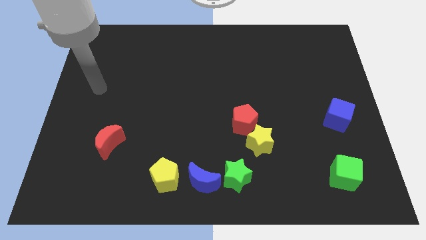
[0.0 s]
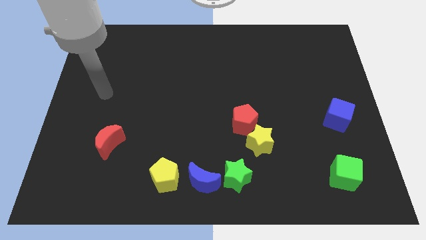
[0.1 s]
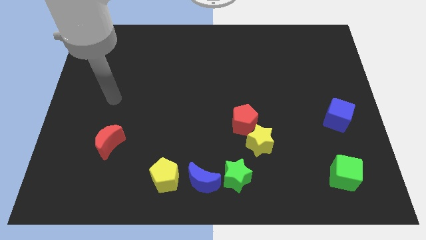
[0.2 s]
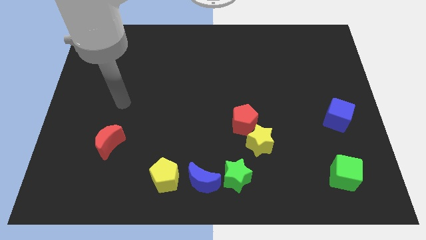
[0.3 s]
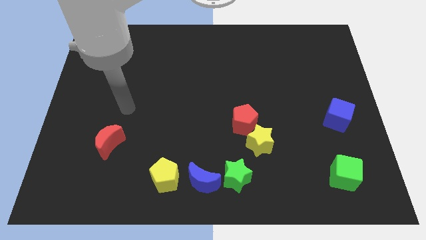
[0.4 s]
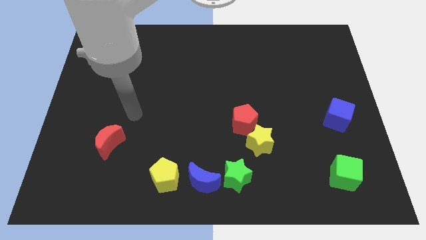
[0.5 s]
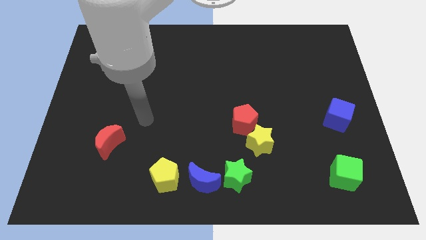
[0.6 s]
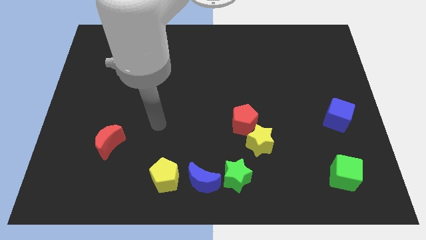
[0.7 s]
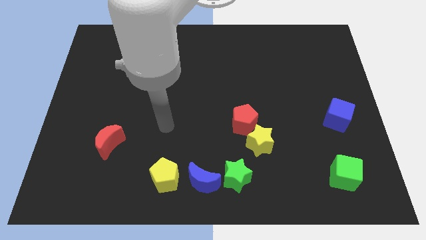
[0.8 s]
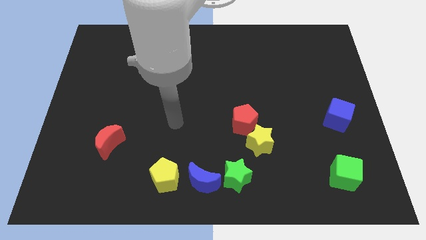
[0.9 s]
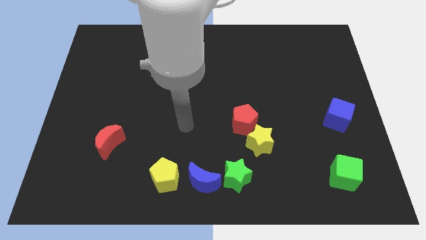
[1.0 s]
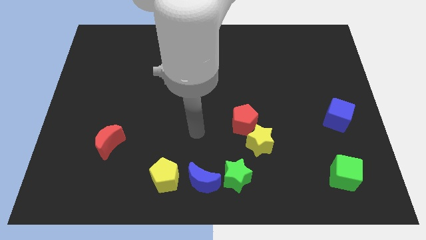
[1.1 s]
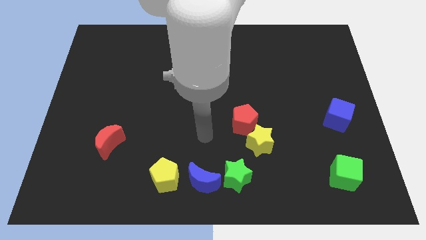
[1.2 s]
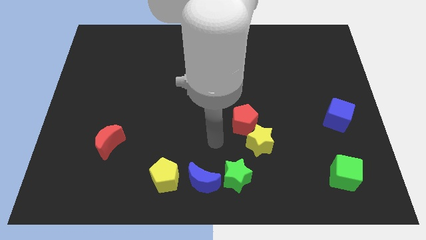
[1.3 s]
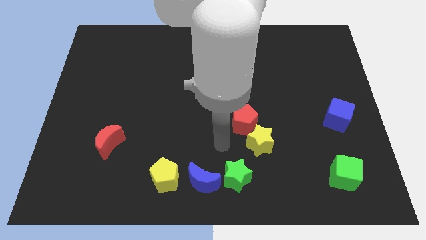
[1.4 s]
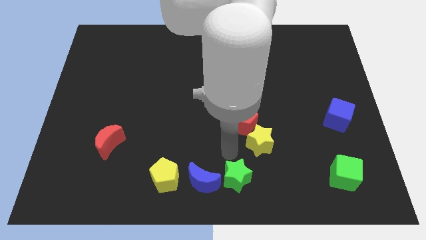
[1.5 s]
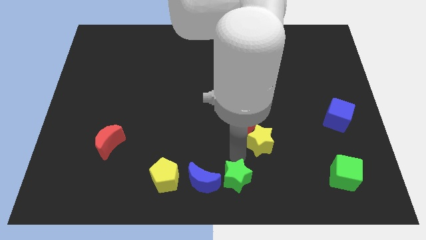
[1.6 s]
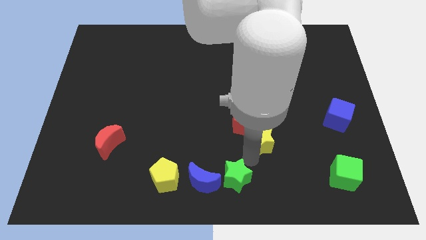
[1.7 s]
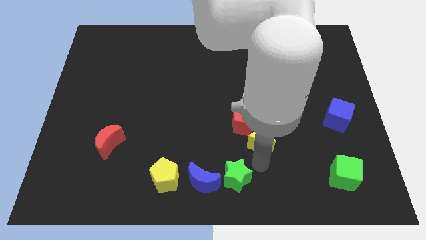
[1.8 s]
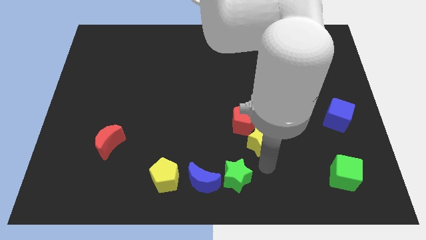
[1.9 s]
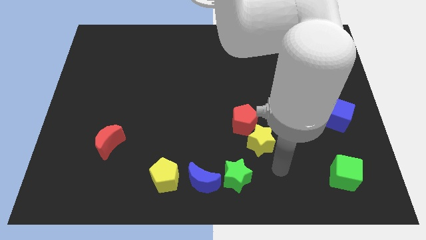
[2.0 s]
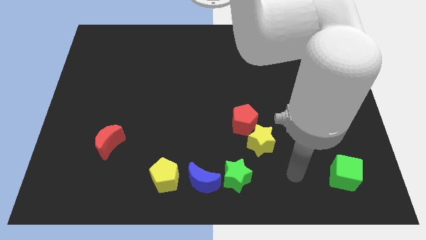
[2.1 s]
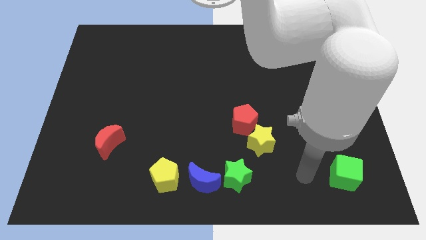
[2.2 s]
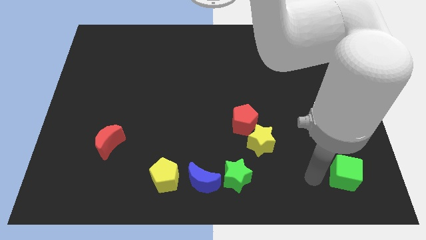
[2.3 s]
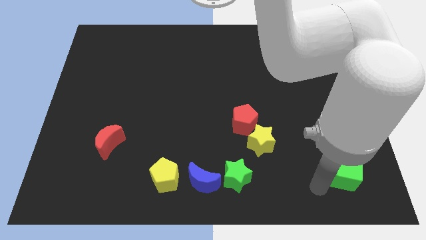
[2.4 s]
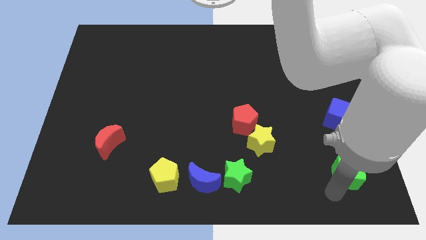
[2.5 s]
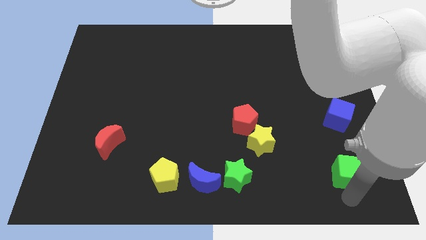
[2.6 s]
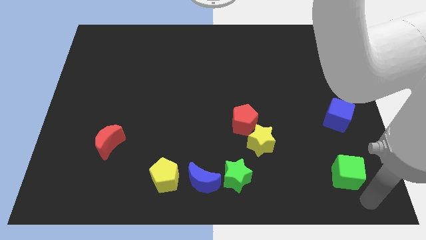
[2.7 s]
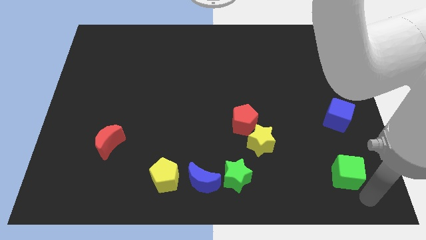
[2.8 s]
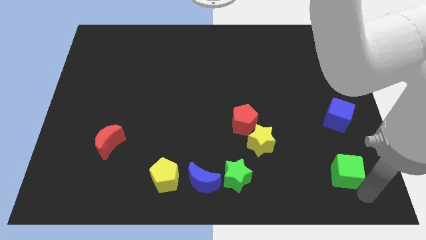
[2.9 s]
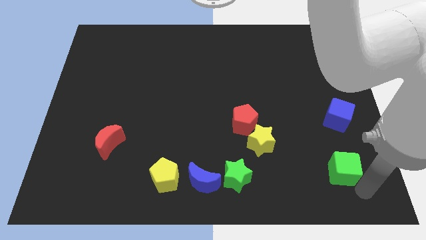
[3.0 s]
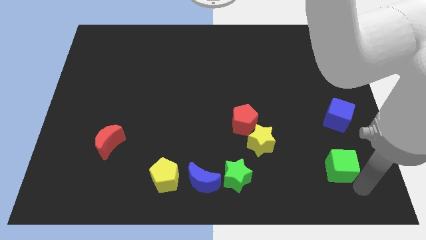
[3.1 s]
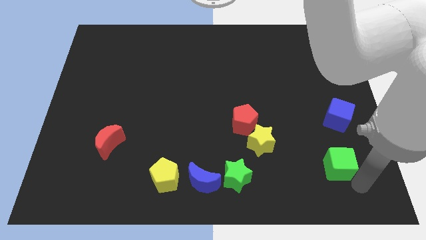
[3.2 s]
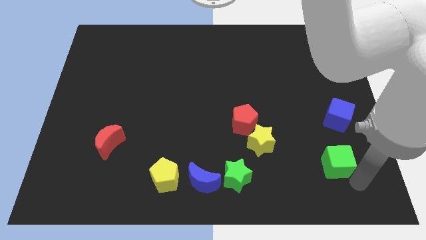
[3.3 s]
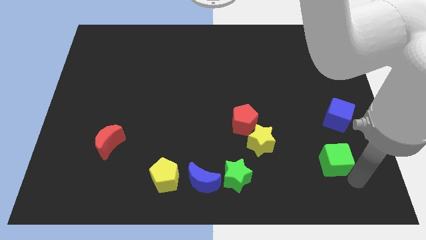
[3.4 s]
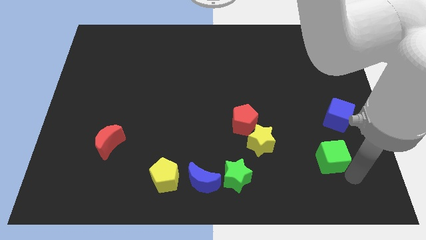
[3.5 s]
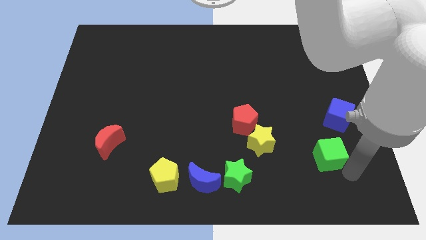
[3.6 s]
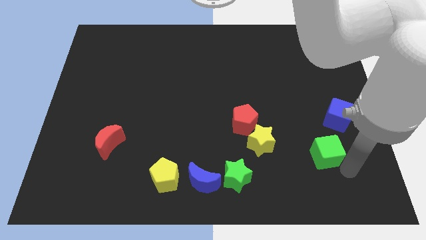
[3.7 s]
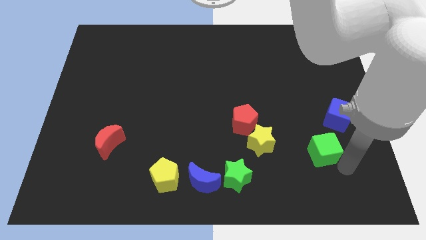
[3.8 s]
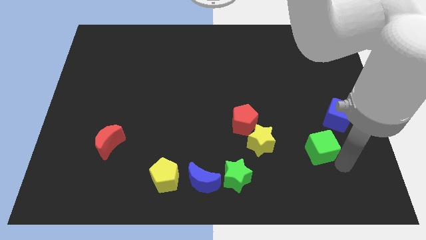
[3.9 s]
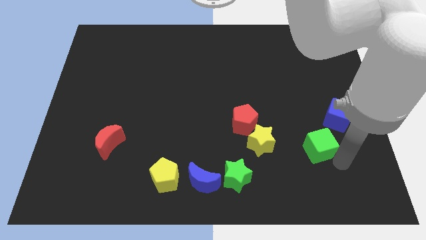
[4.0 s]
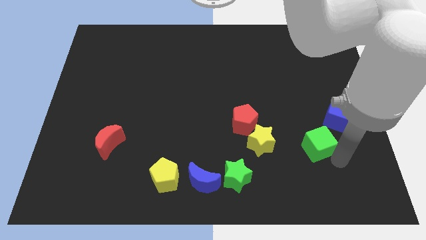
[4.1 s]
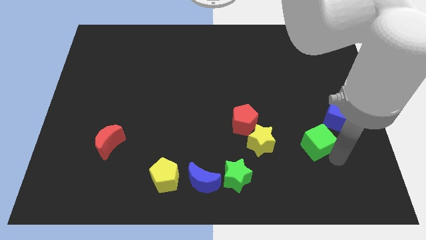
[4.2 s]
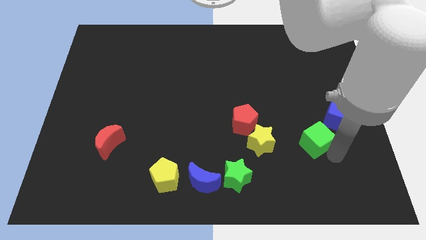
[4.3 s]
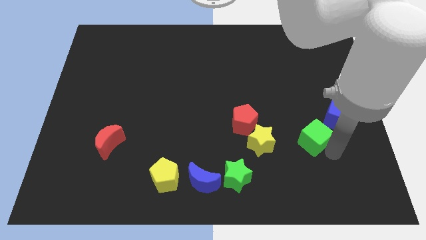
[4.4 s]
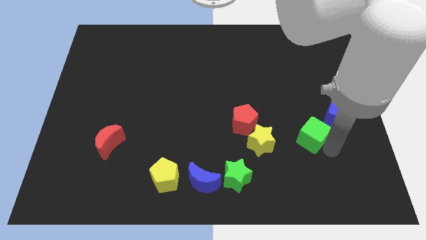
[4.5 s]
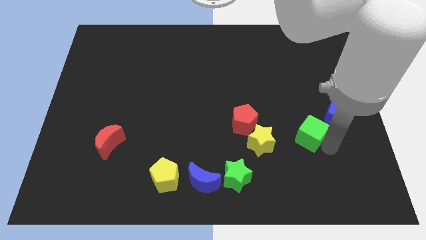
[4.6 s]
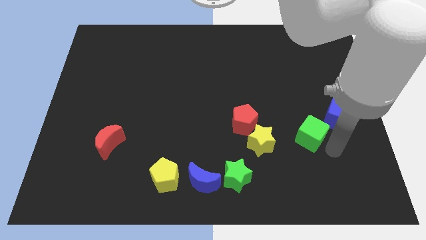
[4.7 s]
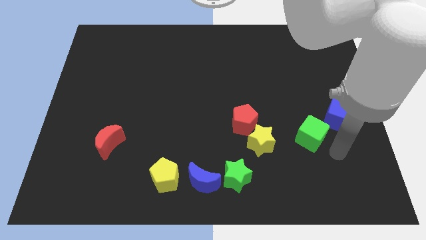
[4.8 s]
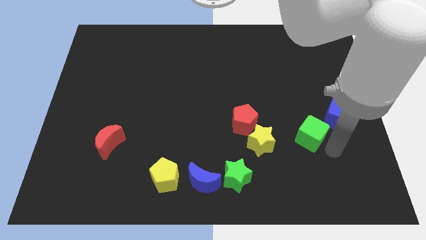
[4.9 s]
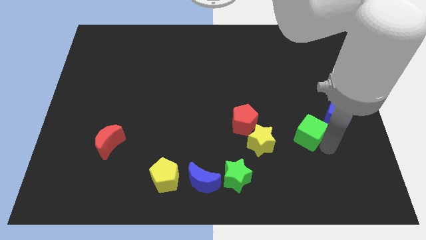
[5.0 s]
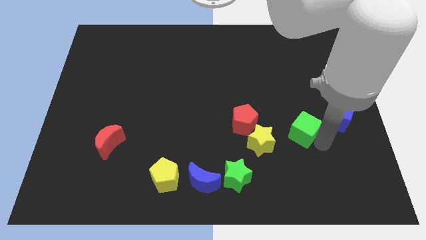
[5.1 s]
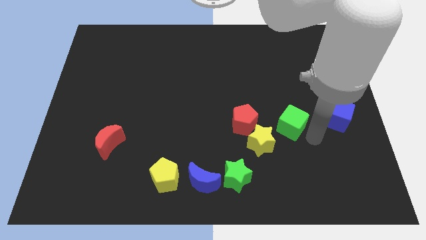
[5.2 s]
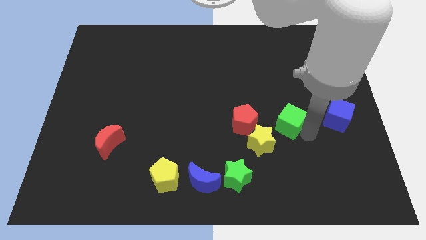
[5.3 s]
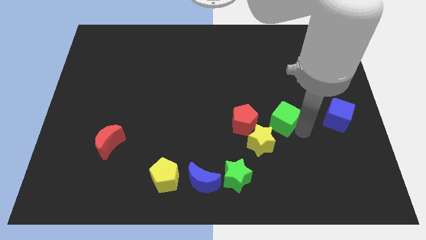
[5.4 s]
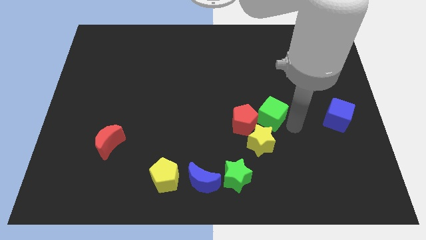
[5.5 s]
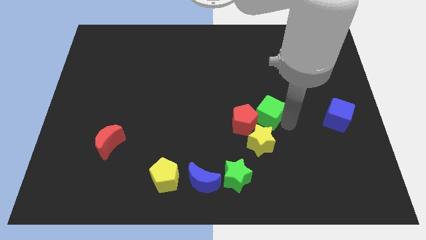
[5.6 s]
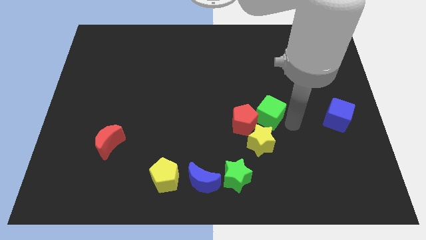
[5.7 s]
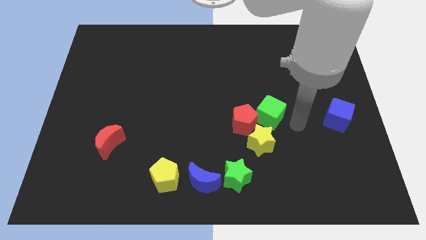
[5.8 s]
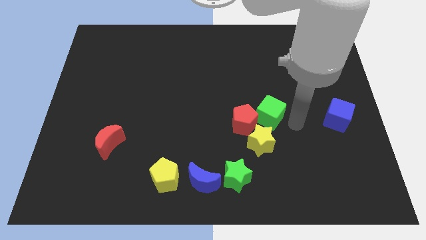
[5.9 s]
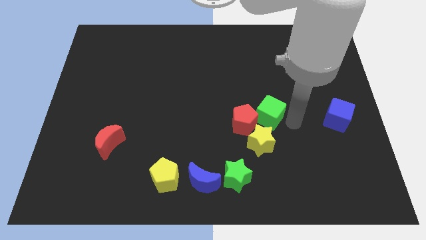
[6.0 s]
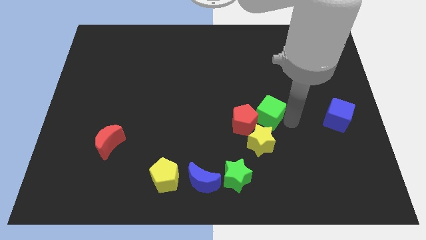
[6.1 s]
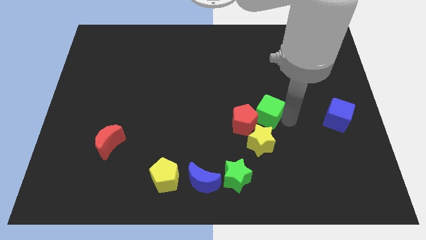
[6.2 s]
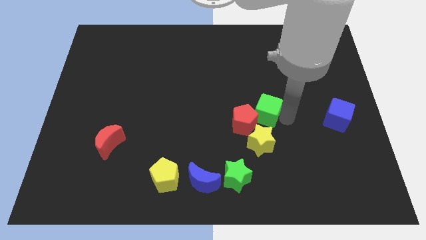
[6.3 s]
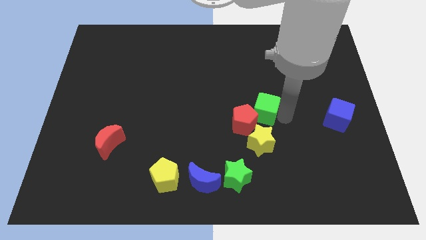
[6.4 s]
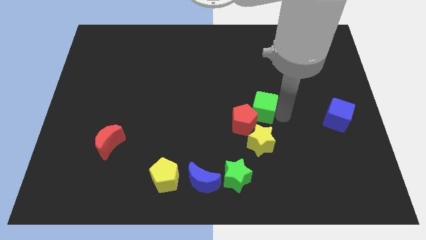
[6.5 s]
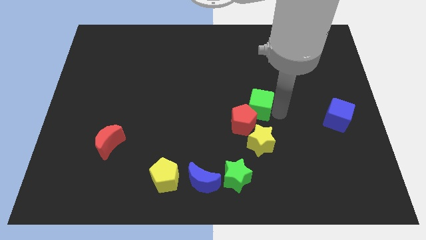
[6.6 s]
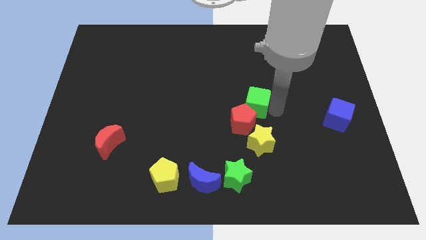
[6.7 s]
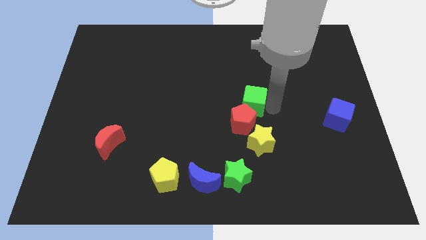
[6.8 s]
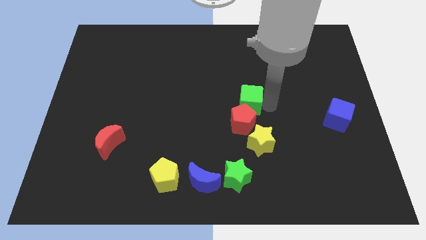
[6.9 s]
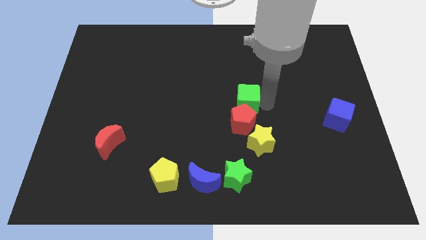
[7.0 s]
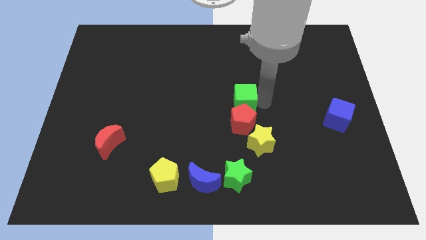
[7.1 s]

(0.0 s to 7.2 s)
move the green cube to the top left of the red pentagon

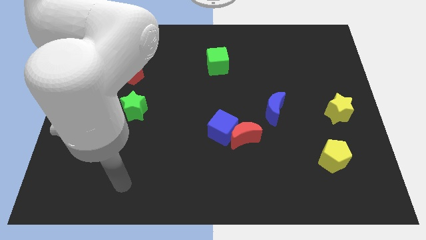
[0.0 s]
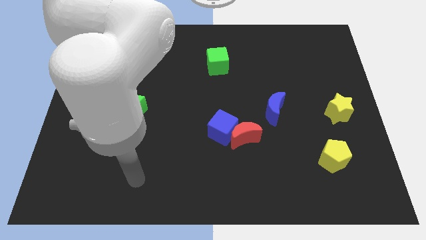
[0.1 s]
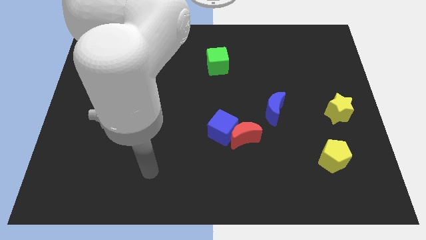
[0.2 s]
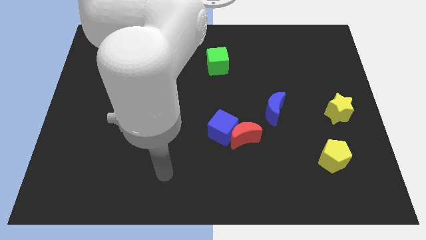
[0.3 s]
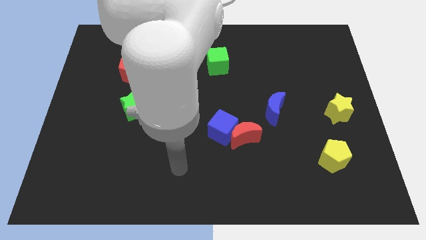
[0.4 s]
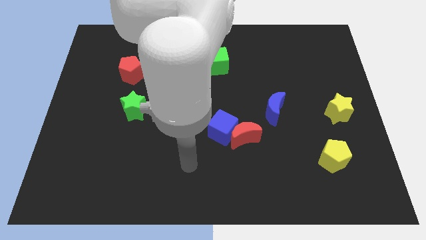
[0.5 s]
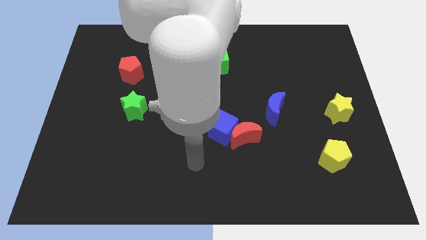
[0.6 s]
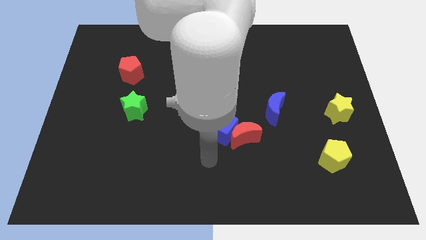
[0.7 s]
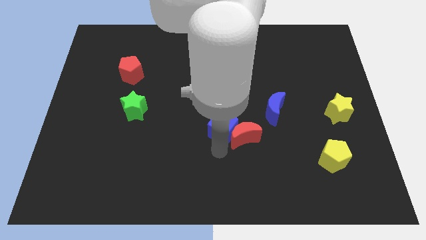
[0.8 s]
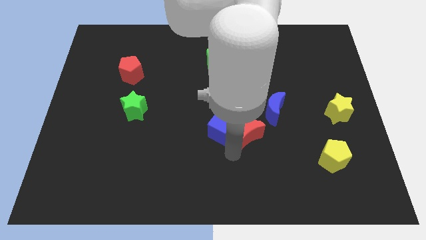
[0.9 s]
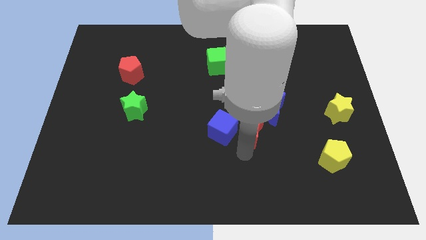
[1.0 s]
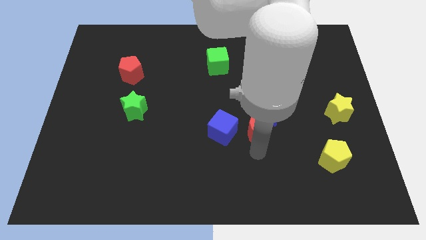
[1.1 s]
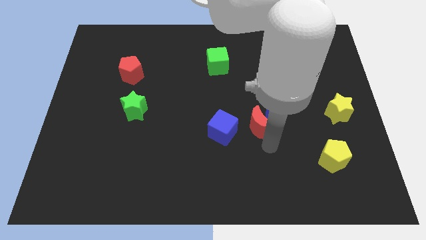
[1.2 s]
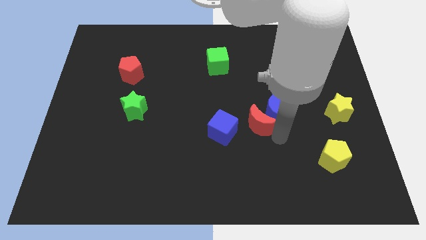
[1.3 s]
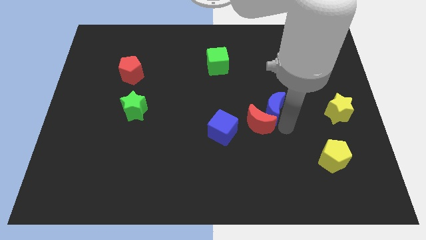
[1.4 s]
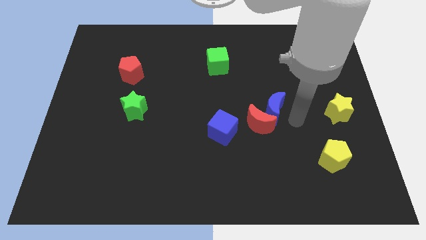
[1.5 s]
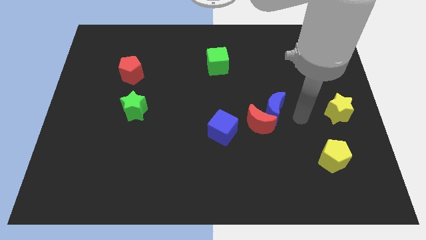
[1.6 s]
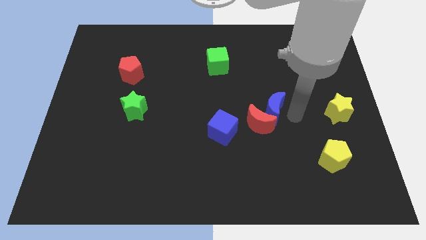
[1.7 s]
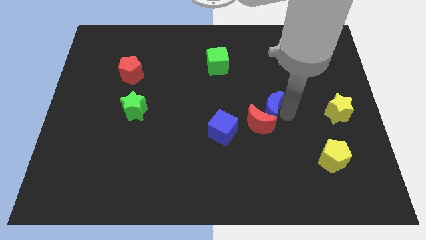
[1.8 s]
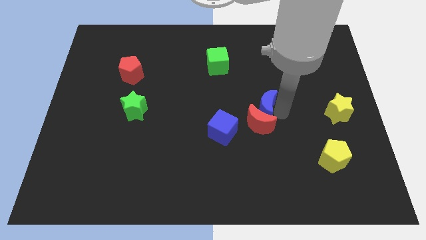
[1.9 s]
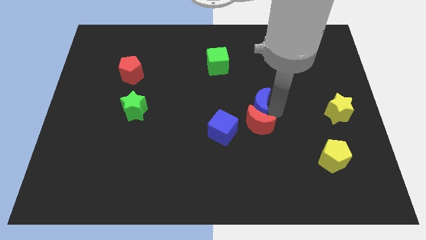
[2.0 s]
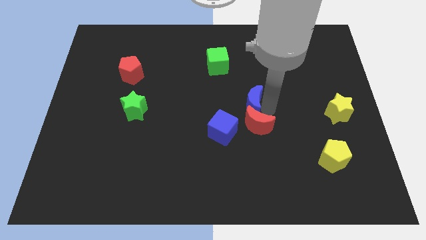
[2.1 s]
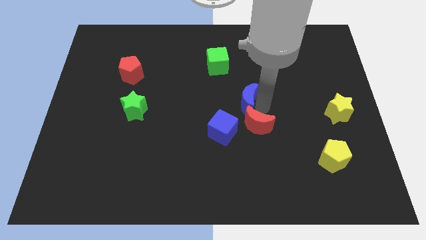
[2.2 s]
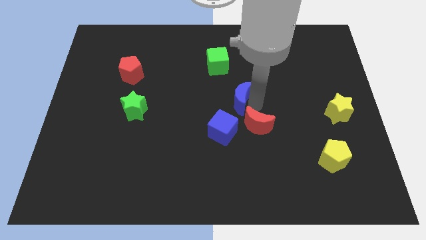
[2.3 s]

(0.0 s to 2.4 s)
slide the blue moon to the top of the blue cube
